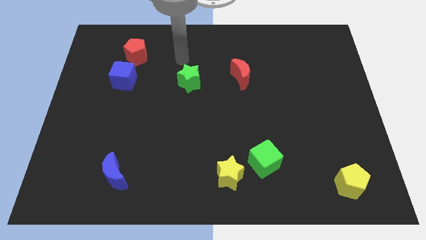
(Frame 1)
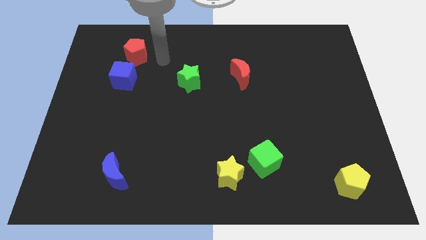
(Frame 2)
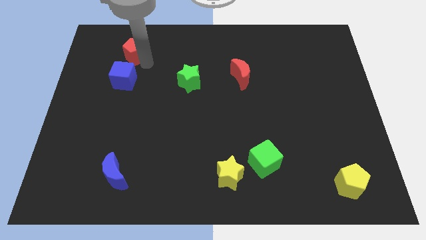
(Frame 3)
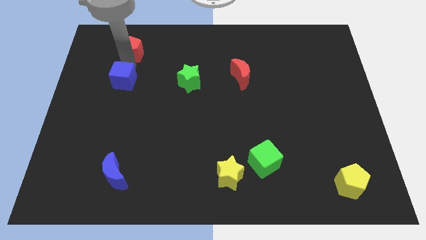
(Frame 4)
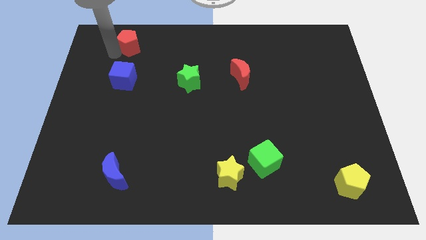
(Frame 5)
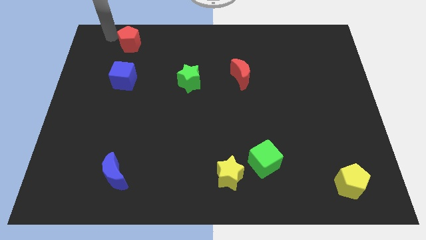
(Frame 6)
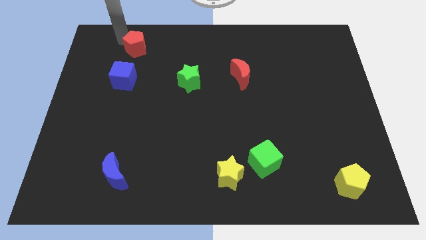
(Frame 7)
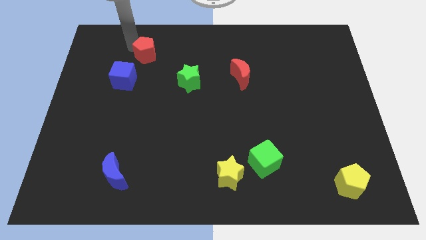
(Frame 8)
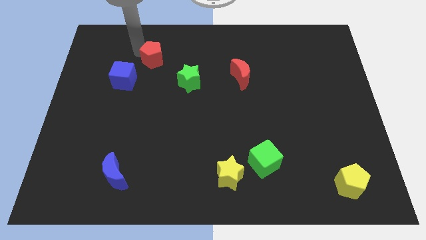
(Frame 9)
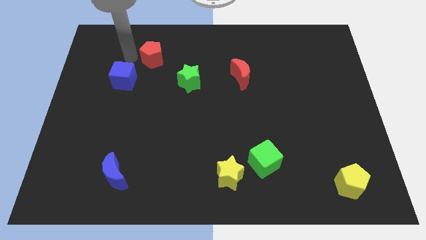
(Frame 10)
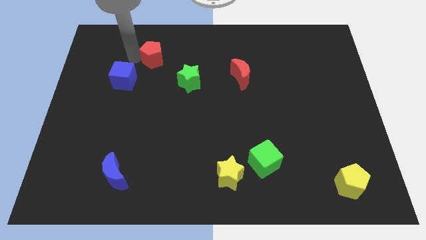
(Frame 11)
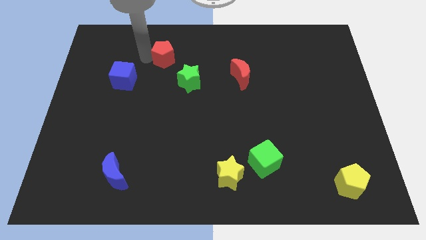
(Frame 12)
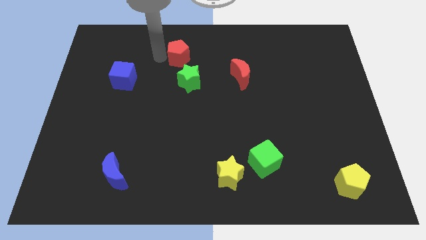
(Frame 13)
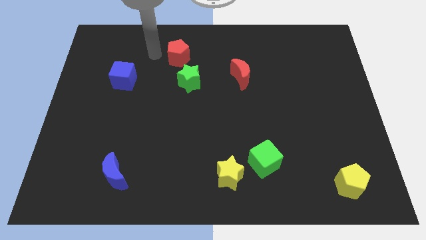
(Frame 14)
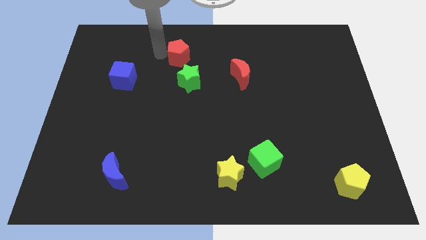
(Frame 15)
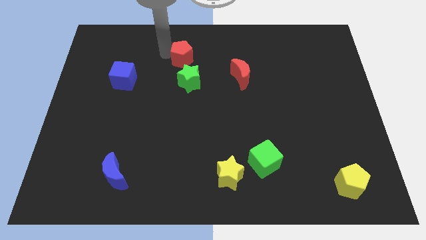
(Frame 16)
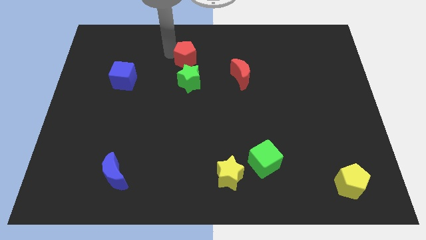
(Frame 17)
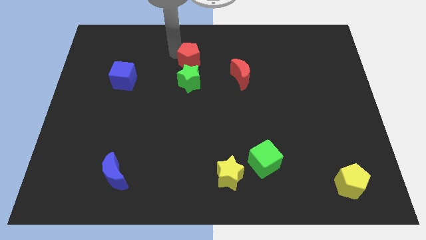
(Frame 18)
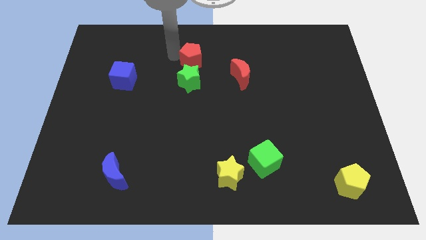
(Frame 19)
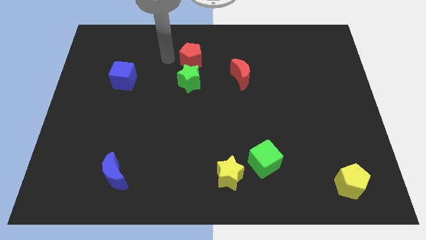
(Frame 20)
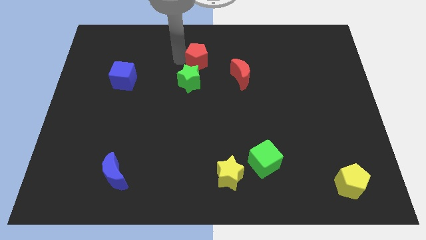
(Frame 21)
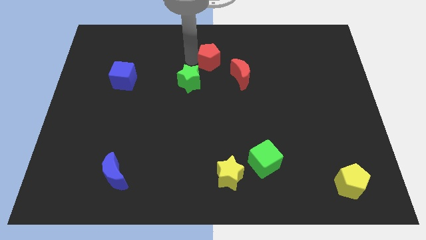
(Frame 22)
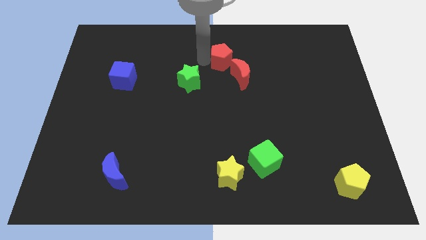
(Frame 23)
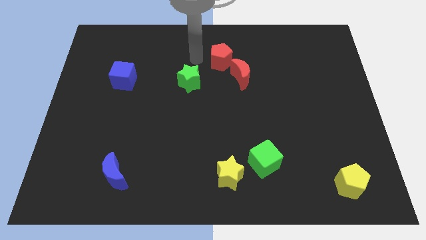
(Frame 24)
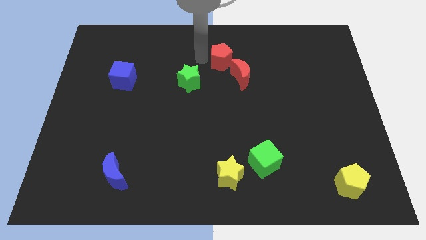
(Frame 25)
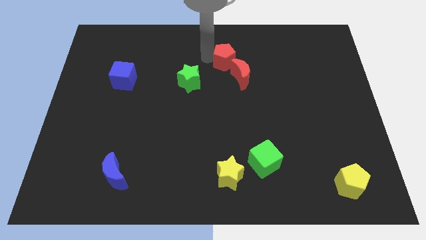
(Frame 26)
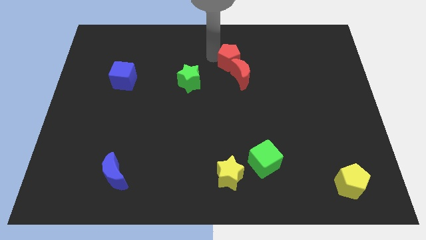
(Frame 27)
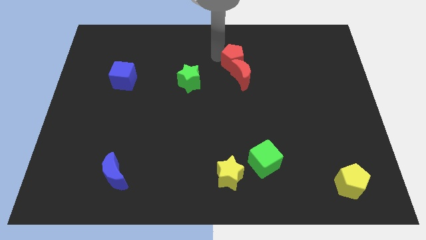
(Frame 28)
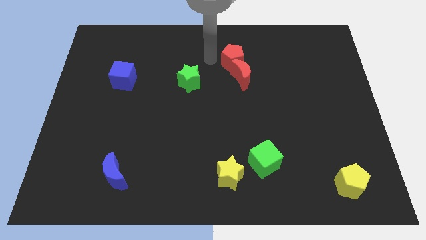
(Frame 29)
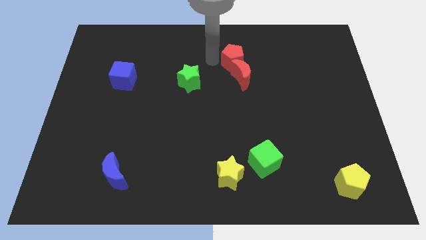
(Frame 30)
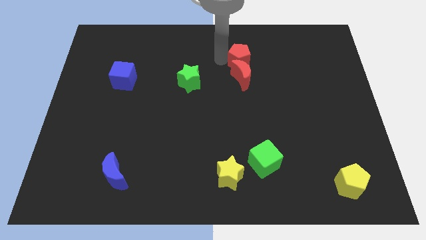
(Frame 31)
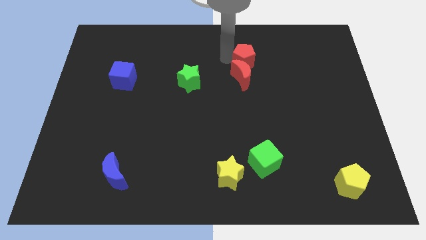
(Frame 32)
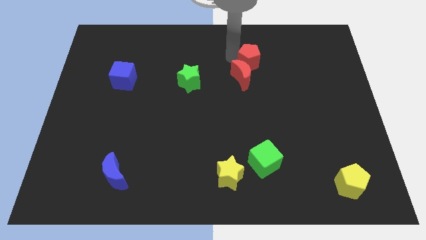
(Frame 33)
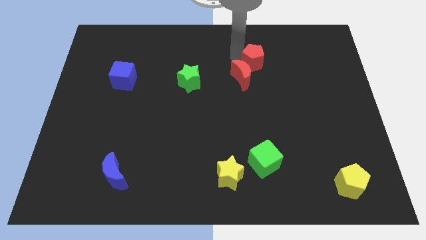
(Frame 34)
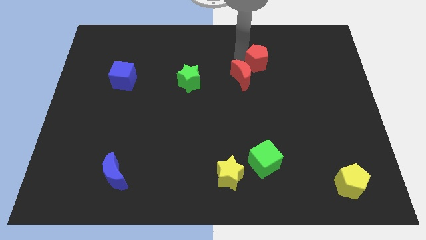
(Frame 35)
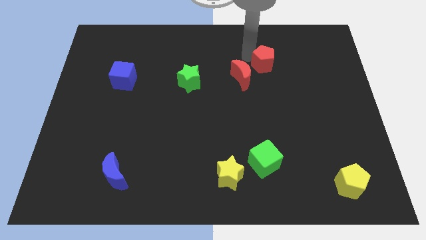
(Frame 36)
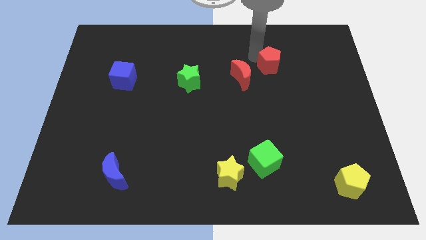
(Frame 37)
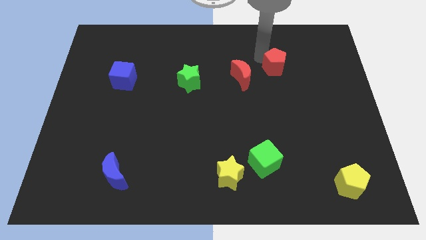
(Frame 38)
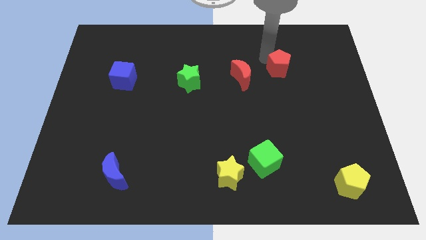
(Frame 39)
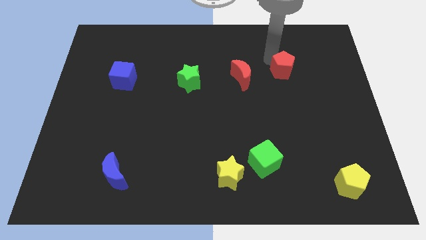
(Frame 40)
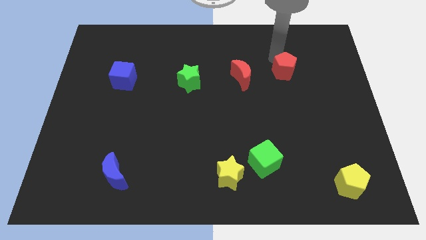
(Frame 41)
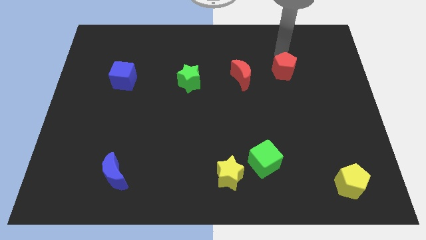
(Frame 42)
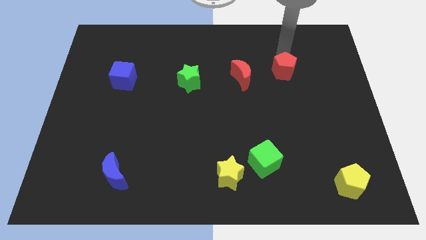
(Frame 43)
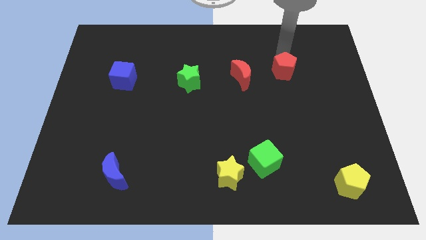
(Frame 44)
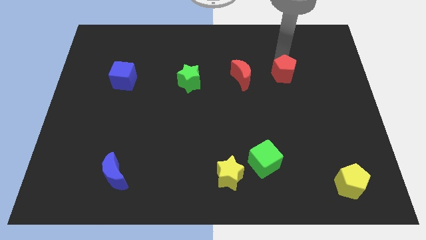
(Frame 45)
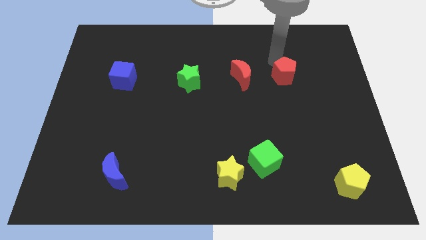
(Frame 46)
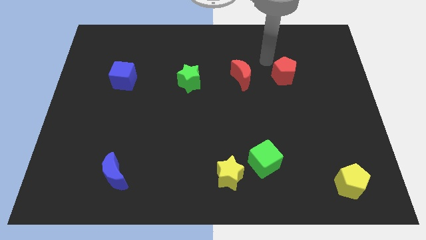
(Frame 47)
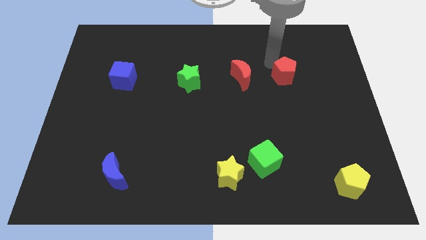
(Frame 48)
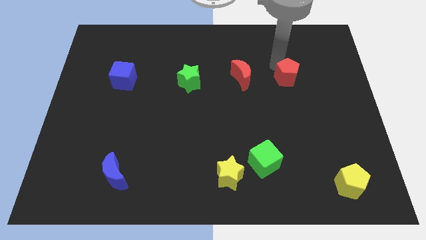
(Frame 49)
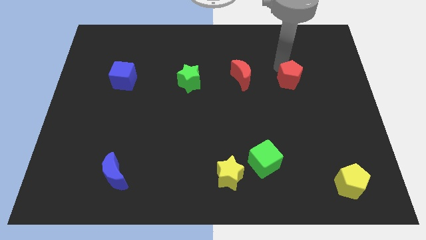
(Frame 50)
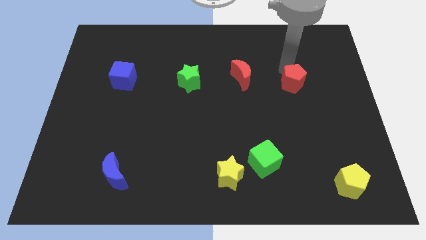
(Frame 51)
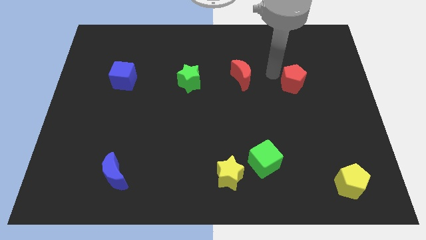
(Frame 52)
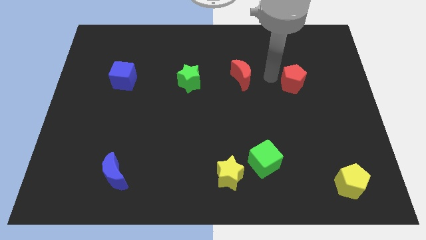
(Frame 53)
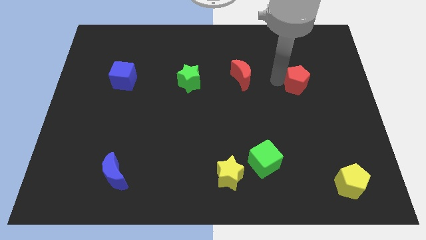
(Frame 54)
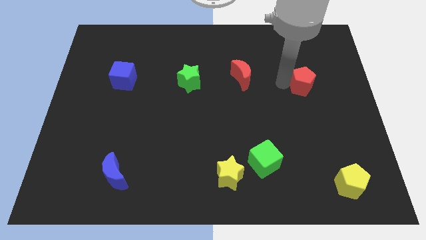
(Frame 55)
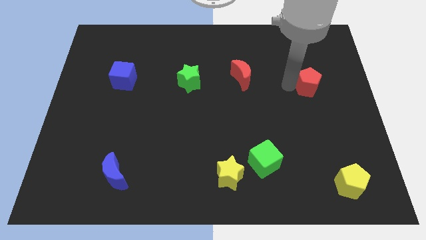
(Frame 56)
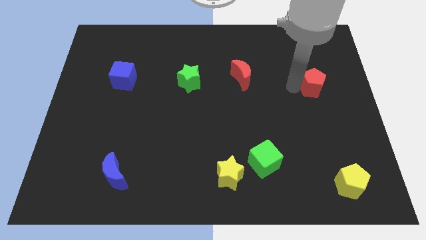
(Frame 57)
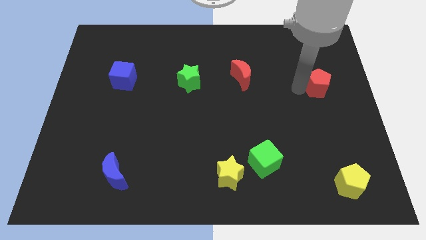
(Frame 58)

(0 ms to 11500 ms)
move the red pentagon to the right side of the board
